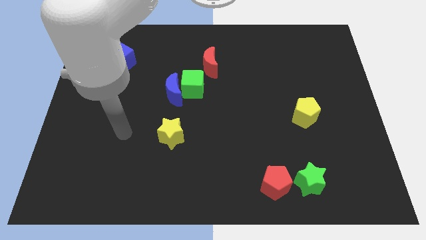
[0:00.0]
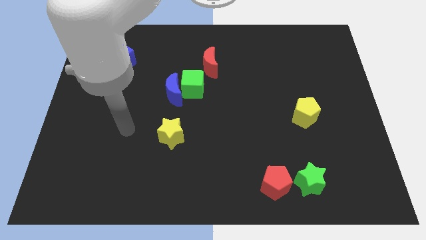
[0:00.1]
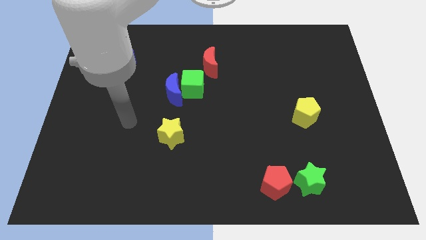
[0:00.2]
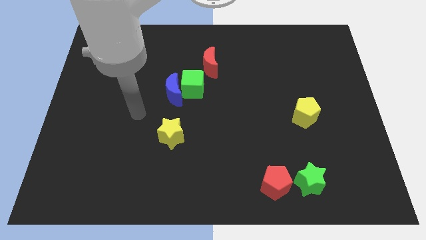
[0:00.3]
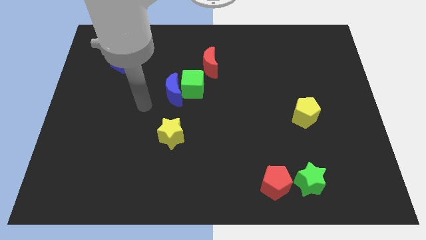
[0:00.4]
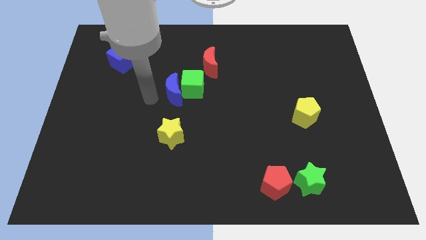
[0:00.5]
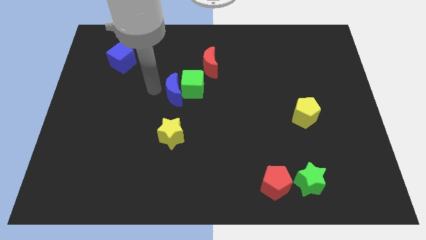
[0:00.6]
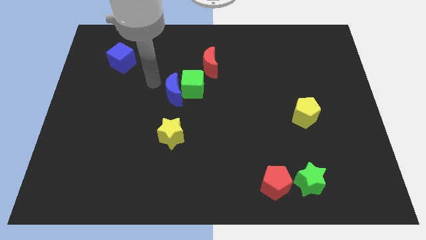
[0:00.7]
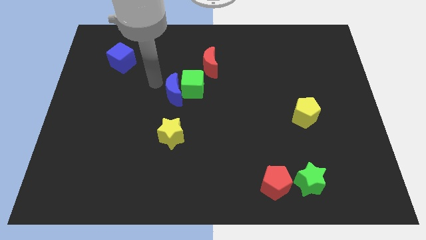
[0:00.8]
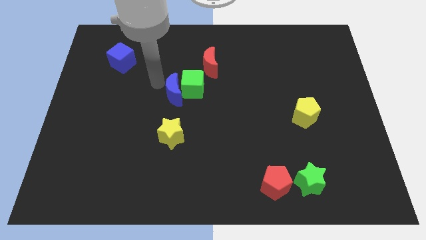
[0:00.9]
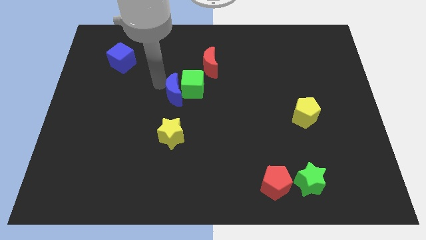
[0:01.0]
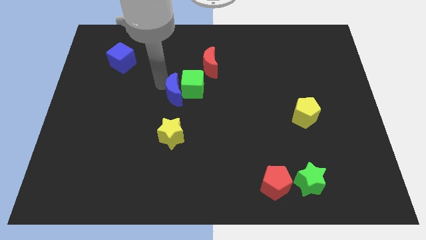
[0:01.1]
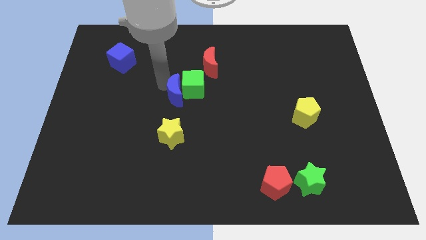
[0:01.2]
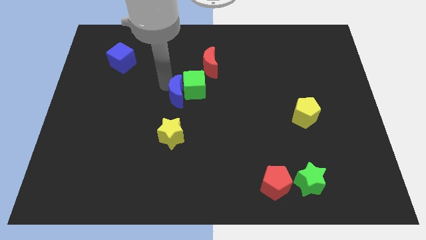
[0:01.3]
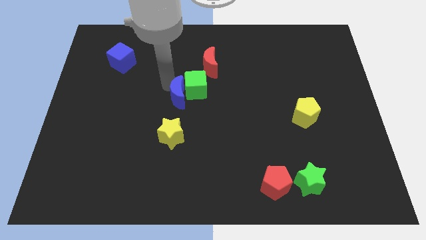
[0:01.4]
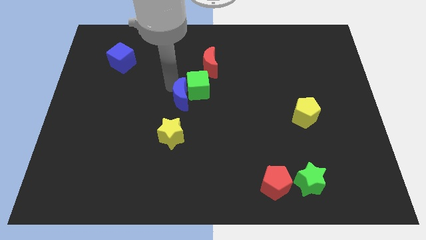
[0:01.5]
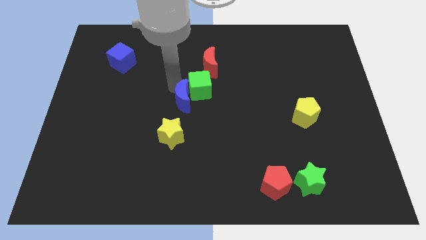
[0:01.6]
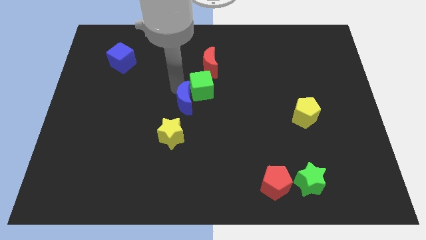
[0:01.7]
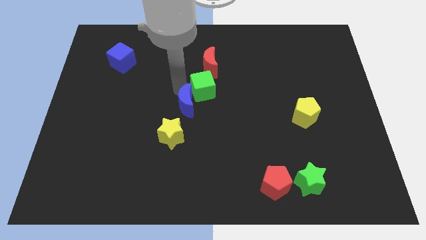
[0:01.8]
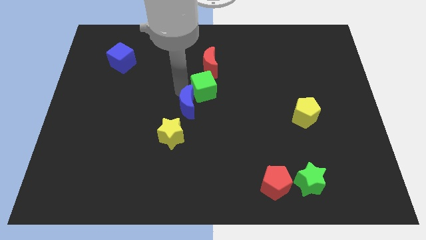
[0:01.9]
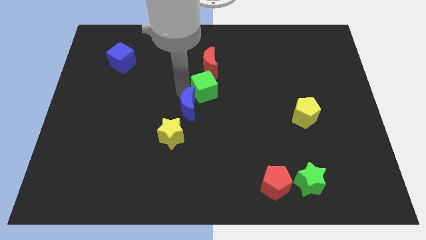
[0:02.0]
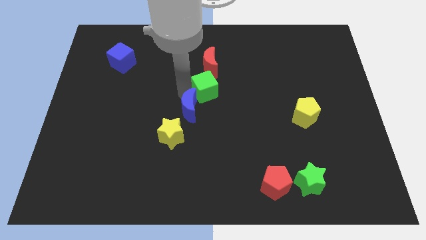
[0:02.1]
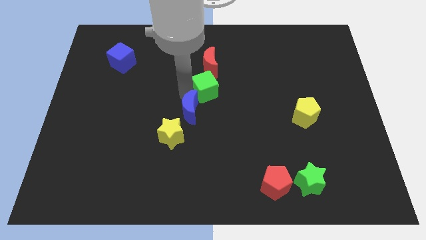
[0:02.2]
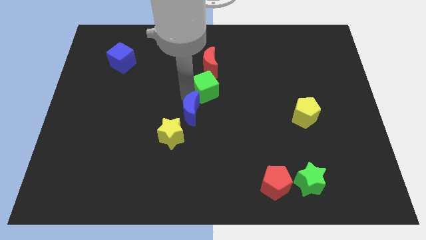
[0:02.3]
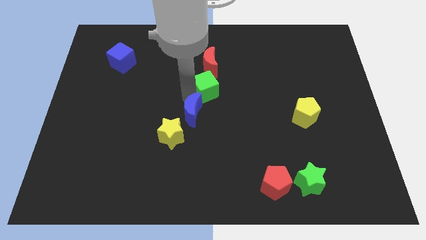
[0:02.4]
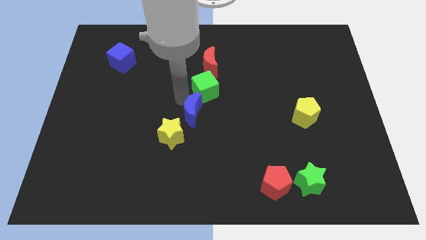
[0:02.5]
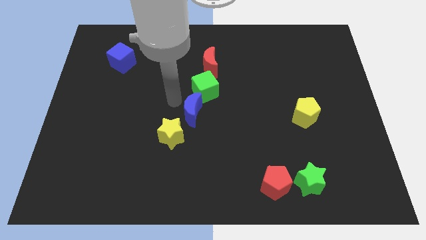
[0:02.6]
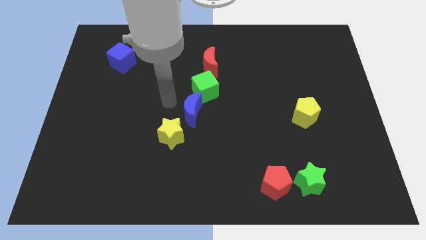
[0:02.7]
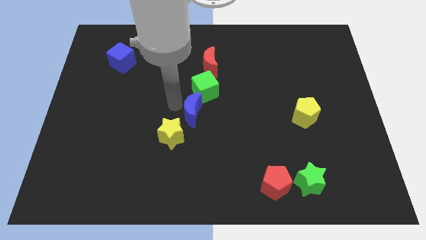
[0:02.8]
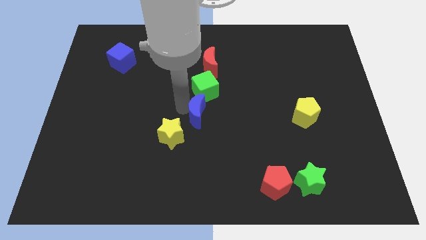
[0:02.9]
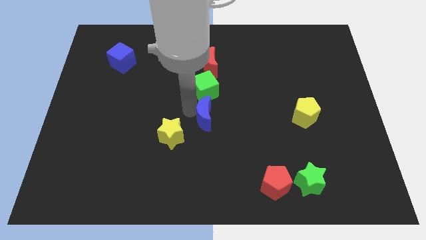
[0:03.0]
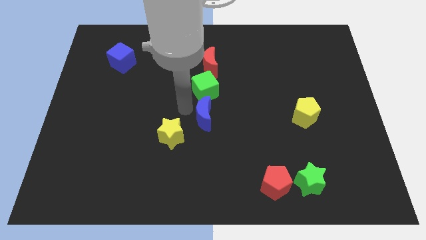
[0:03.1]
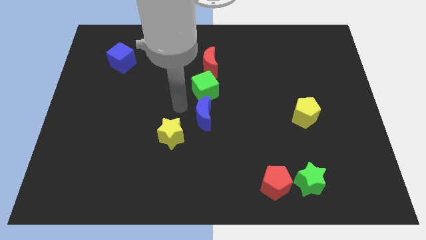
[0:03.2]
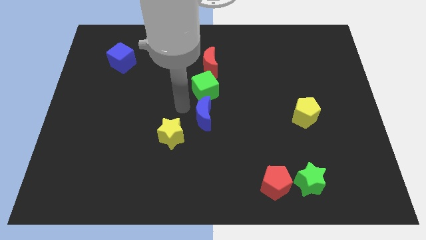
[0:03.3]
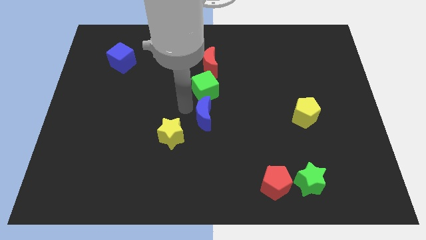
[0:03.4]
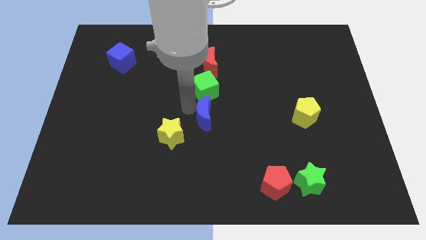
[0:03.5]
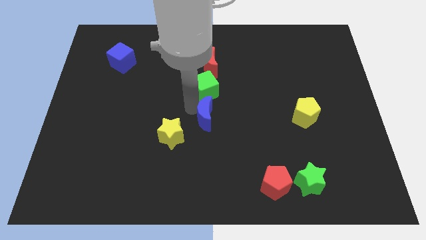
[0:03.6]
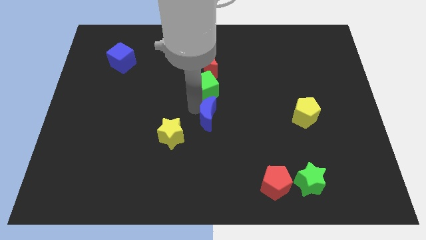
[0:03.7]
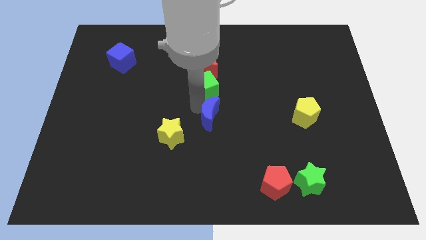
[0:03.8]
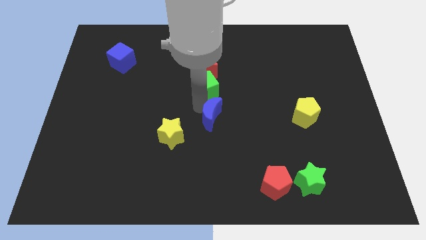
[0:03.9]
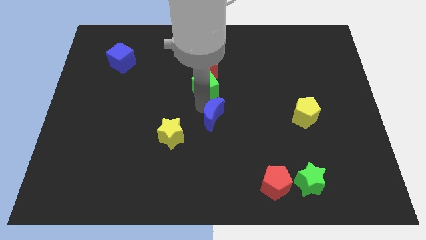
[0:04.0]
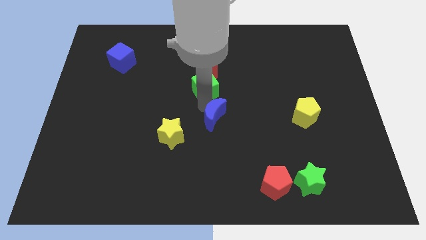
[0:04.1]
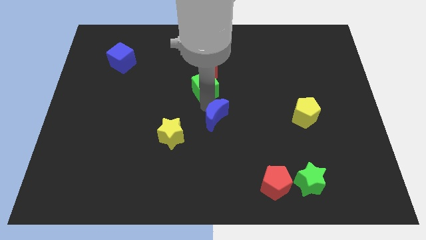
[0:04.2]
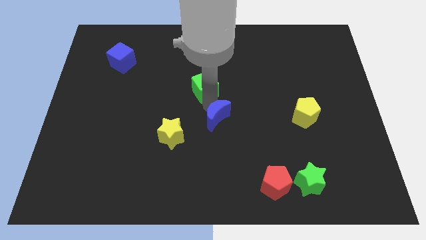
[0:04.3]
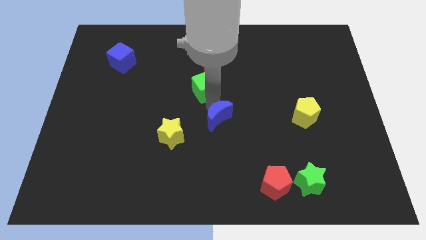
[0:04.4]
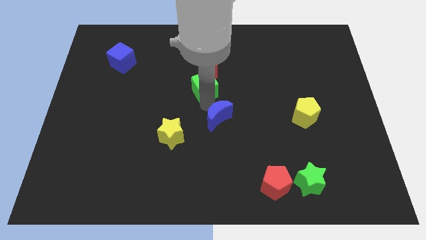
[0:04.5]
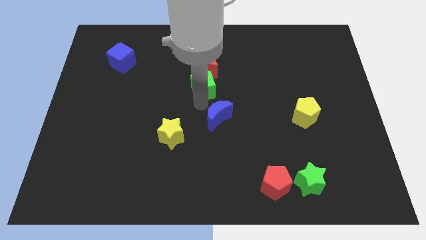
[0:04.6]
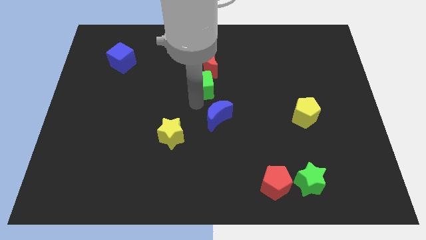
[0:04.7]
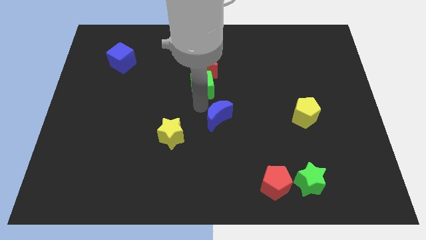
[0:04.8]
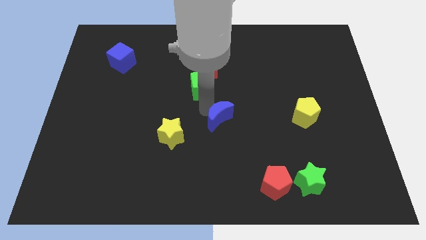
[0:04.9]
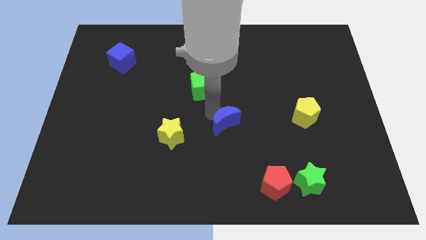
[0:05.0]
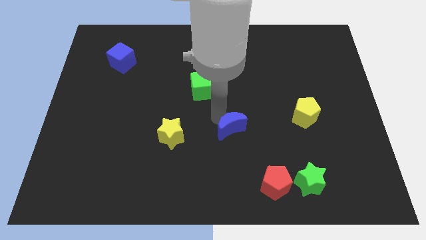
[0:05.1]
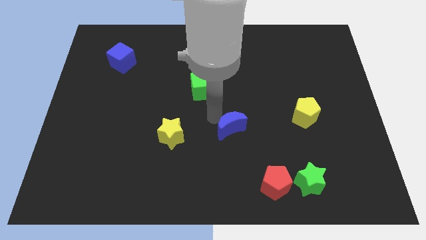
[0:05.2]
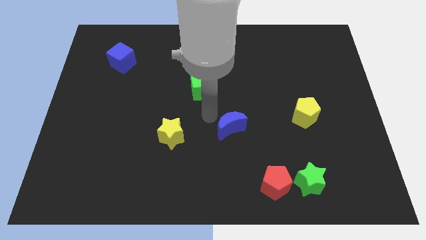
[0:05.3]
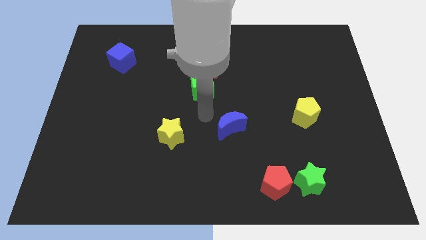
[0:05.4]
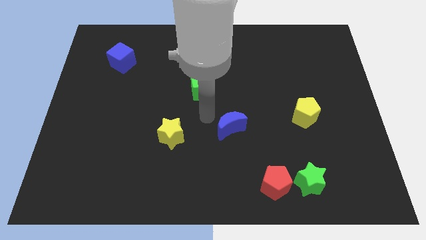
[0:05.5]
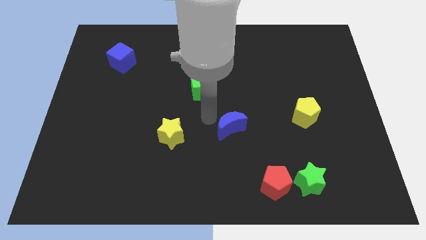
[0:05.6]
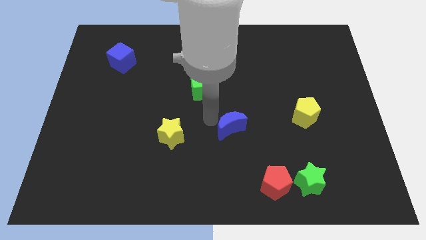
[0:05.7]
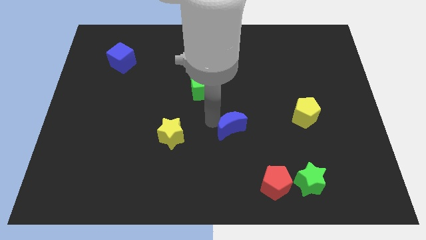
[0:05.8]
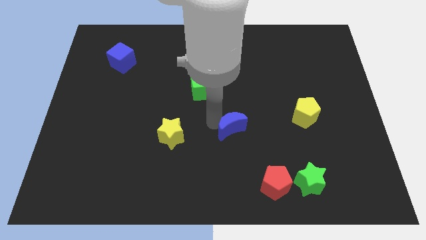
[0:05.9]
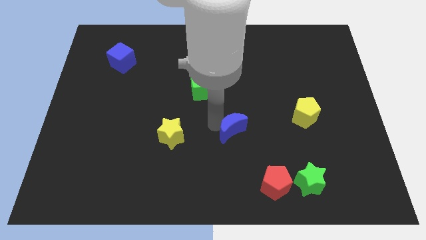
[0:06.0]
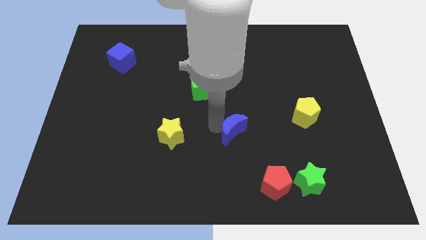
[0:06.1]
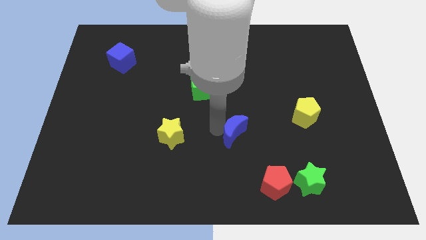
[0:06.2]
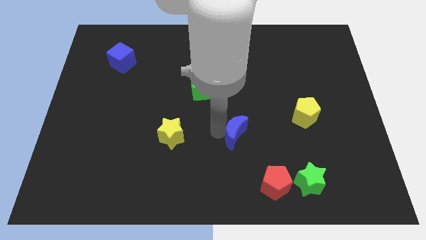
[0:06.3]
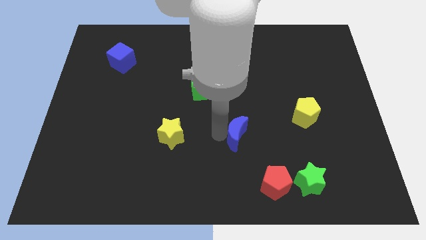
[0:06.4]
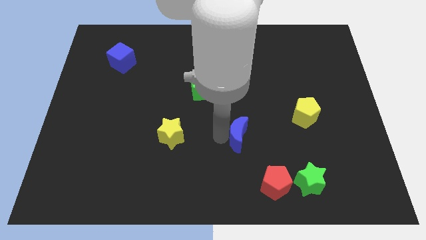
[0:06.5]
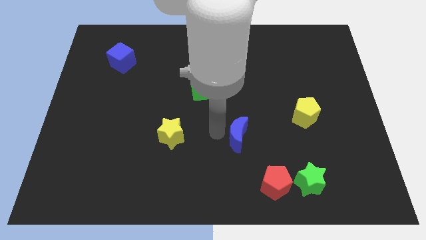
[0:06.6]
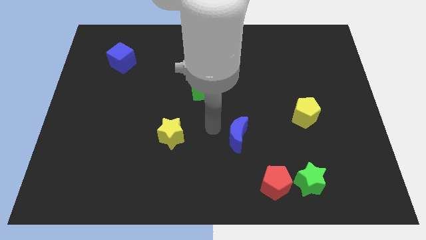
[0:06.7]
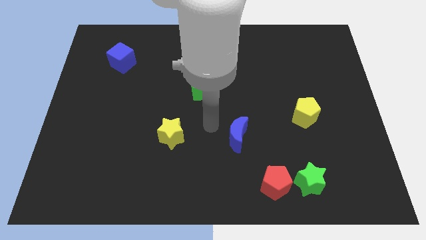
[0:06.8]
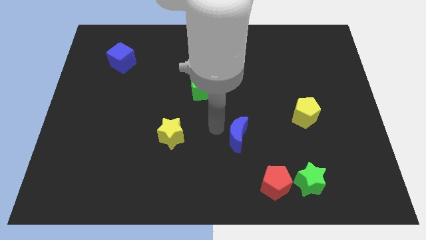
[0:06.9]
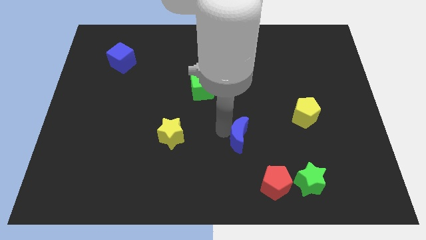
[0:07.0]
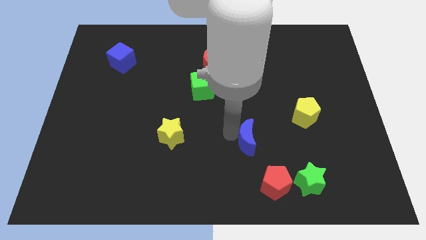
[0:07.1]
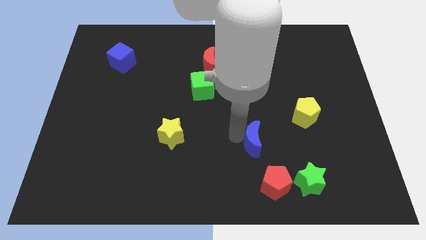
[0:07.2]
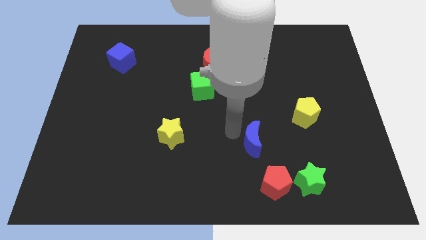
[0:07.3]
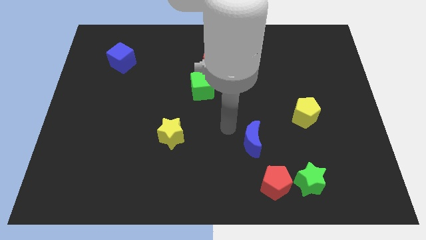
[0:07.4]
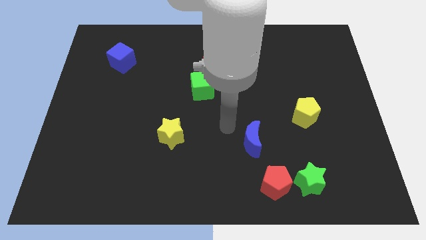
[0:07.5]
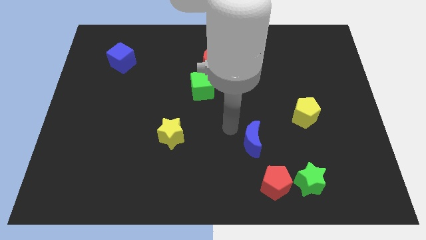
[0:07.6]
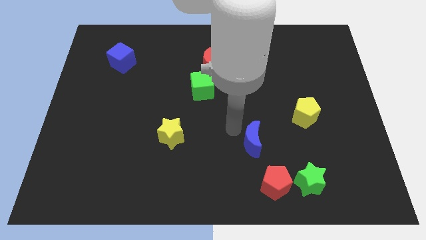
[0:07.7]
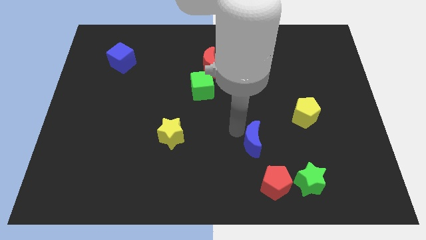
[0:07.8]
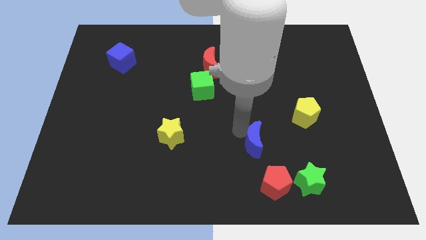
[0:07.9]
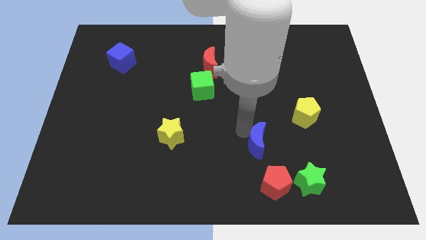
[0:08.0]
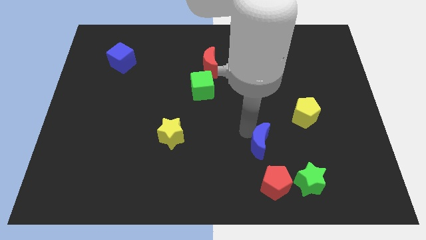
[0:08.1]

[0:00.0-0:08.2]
slide the blue moon to the top left of the green star
